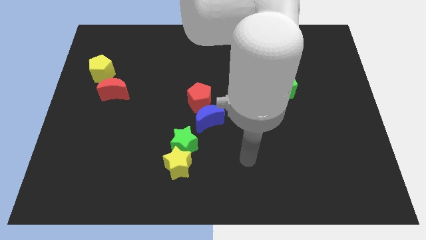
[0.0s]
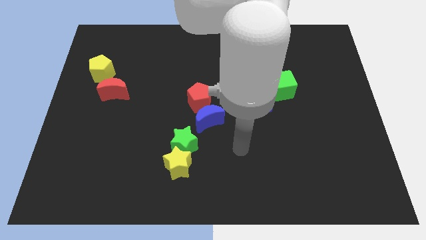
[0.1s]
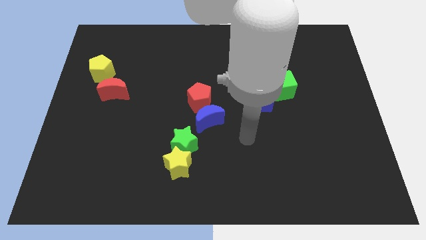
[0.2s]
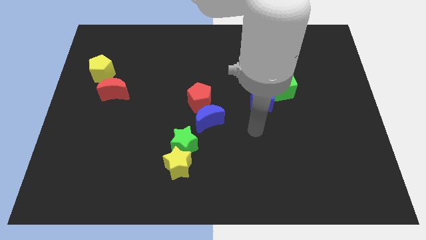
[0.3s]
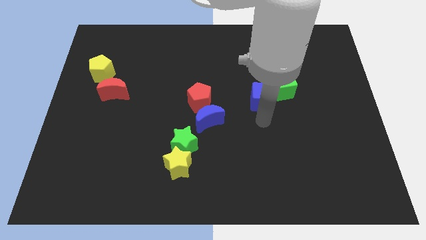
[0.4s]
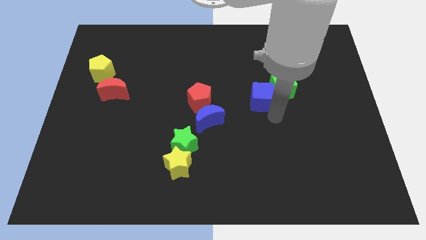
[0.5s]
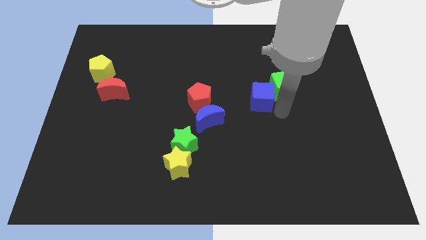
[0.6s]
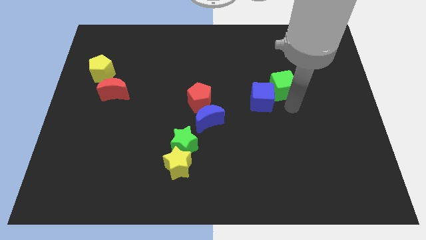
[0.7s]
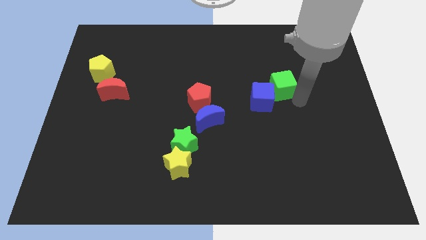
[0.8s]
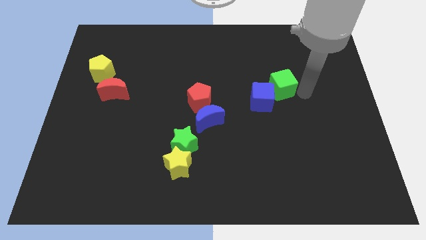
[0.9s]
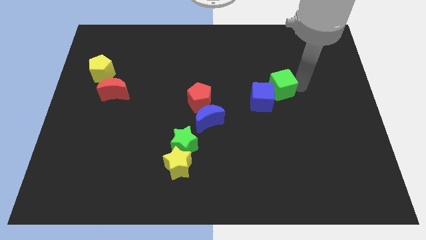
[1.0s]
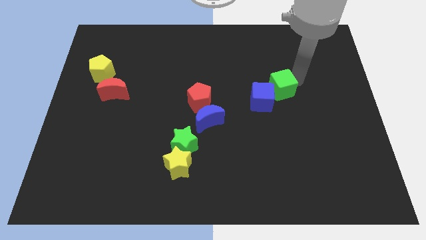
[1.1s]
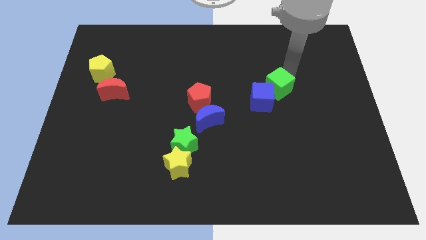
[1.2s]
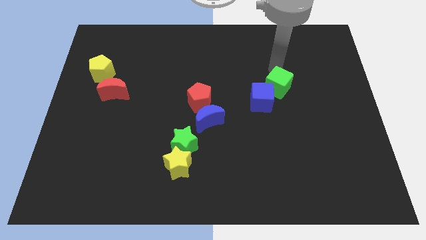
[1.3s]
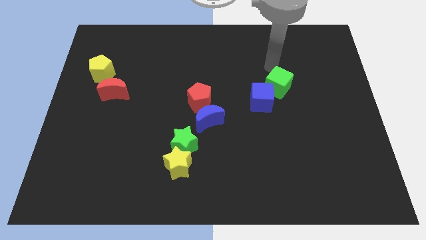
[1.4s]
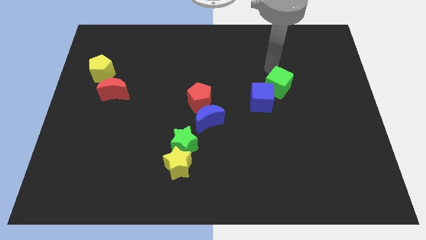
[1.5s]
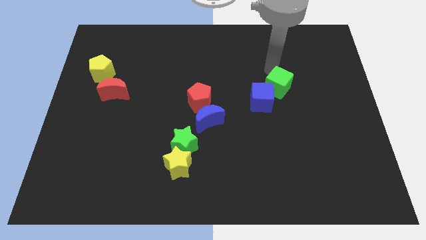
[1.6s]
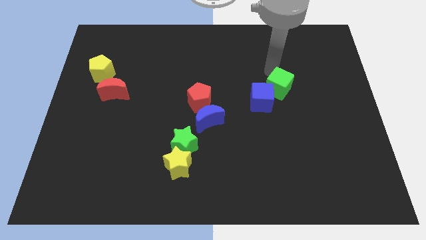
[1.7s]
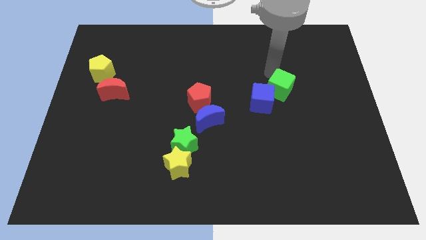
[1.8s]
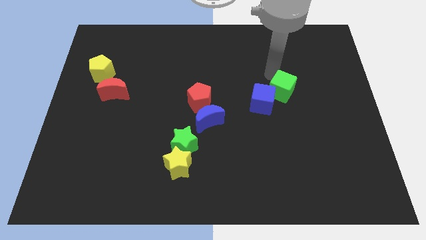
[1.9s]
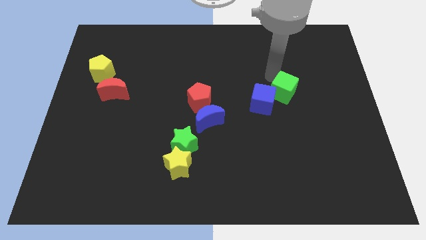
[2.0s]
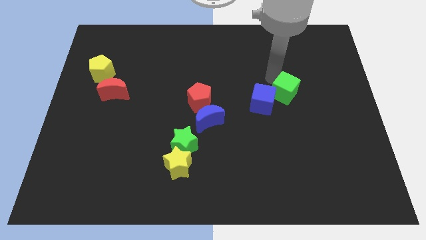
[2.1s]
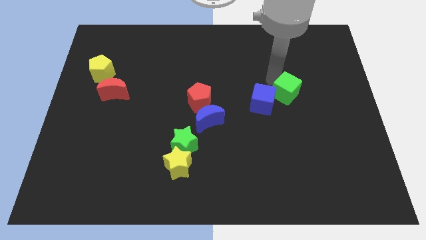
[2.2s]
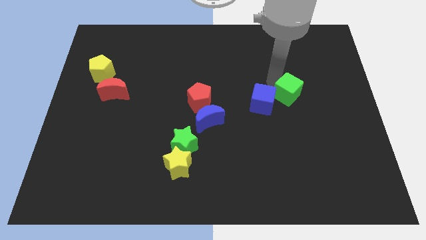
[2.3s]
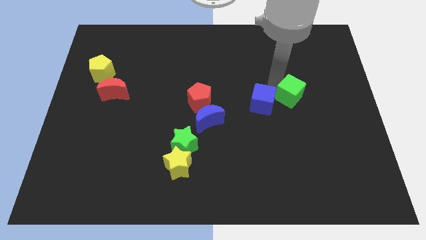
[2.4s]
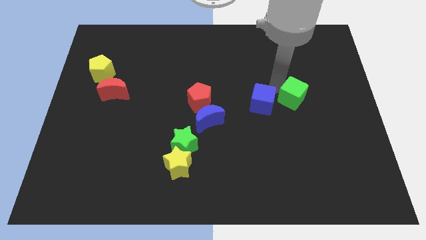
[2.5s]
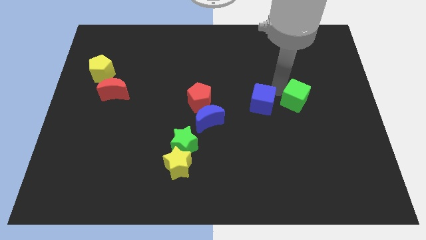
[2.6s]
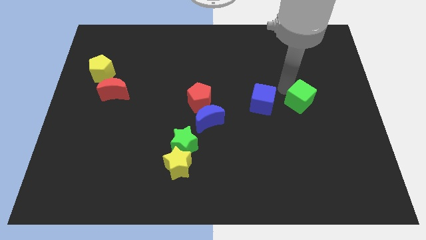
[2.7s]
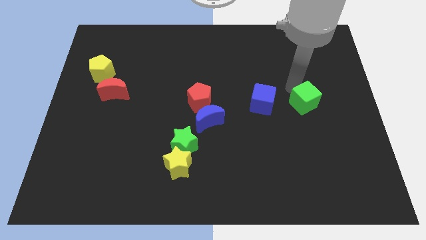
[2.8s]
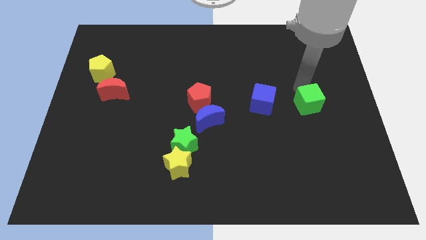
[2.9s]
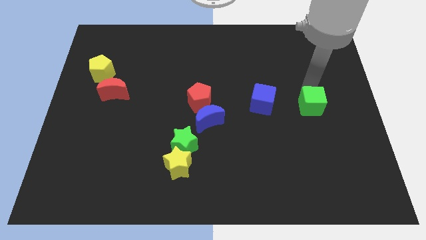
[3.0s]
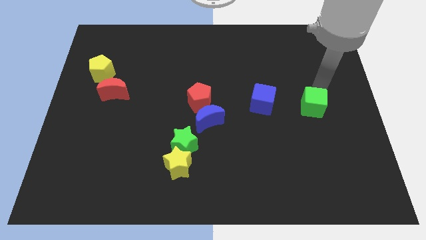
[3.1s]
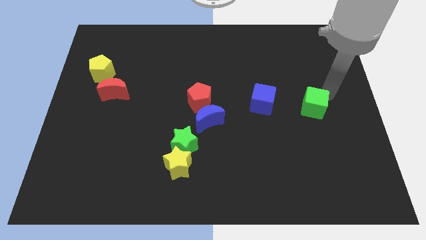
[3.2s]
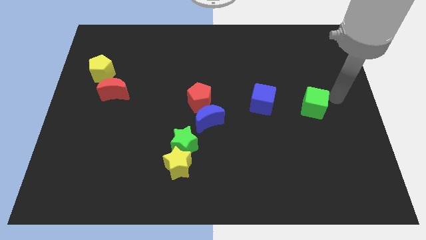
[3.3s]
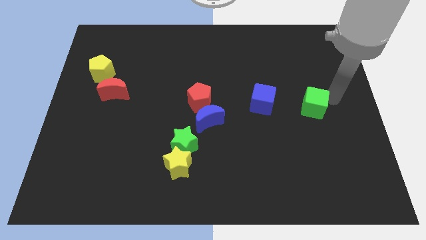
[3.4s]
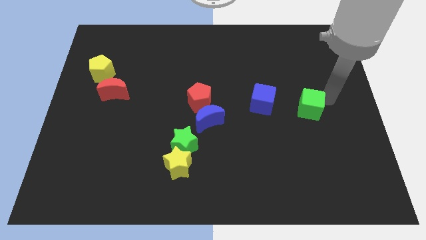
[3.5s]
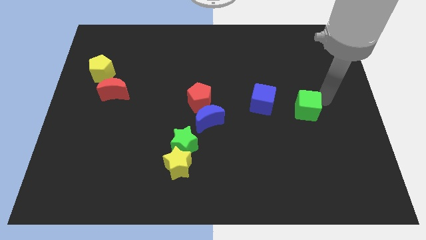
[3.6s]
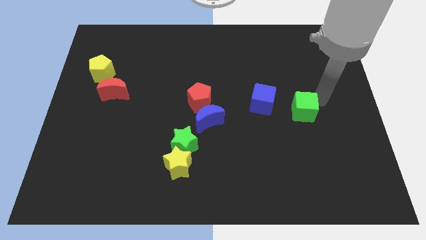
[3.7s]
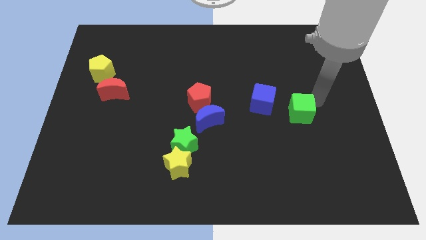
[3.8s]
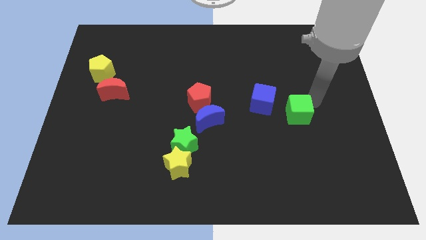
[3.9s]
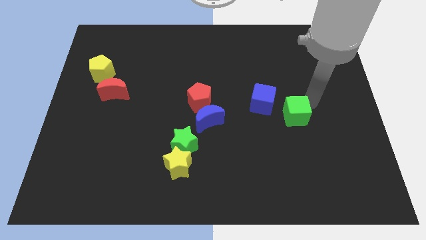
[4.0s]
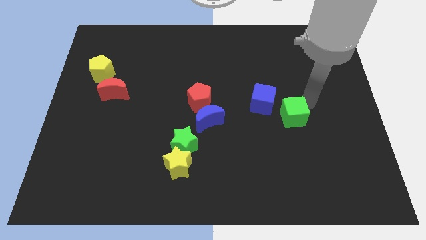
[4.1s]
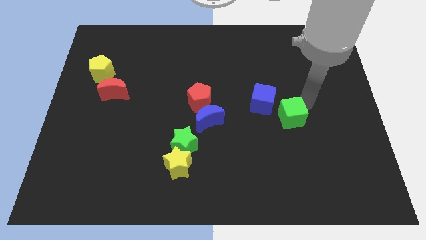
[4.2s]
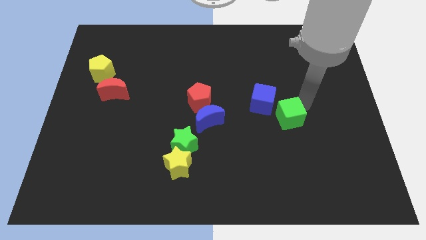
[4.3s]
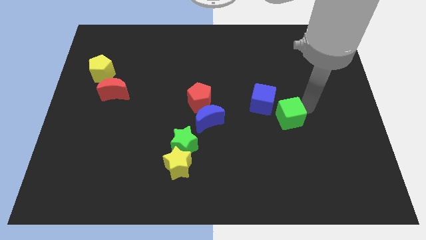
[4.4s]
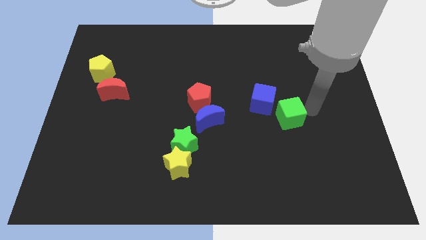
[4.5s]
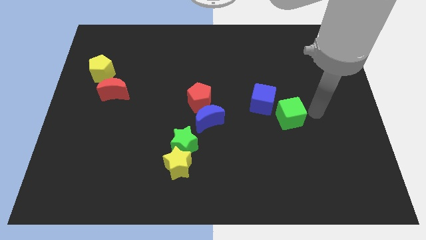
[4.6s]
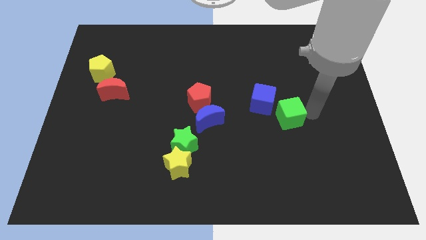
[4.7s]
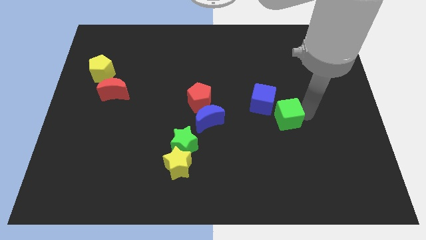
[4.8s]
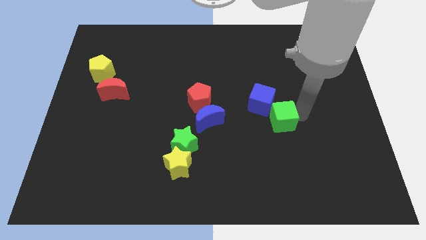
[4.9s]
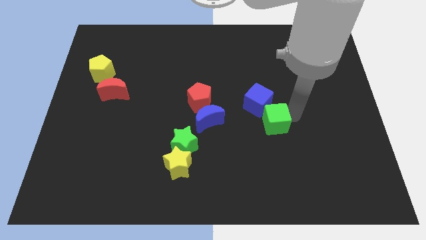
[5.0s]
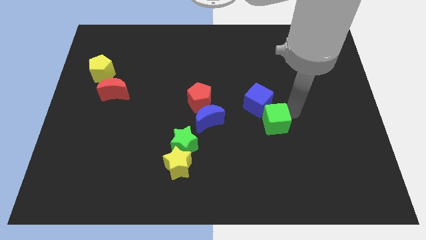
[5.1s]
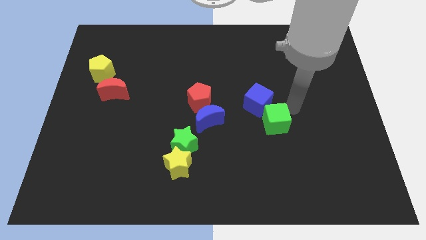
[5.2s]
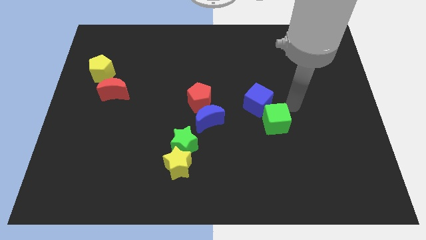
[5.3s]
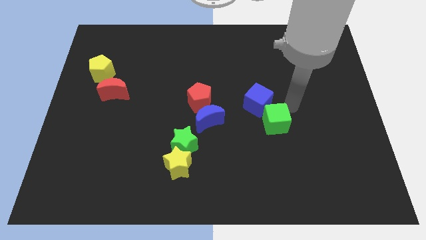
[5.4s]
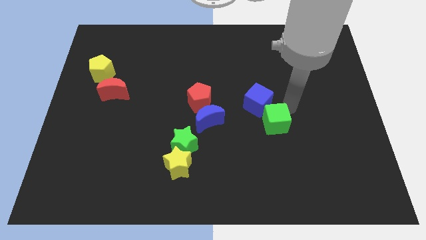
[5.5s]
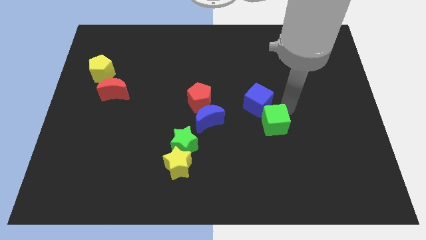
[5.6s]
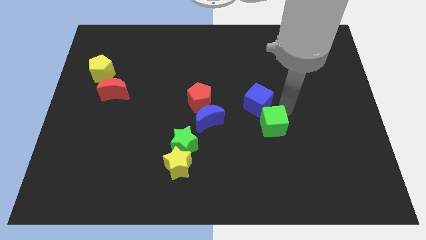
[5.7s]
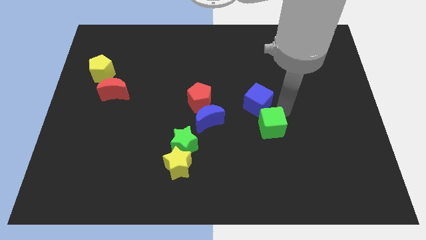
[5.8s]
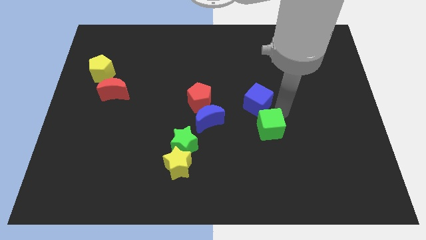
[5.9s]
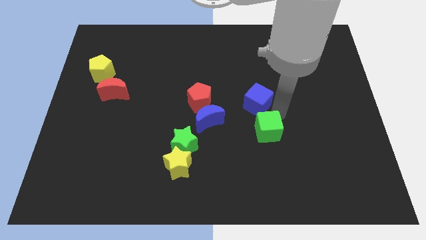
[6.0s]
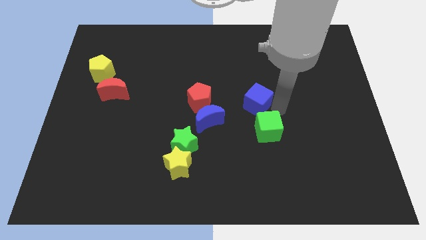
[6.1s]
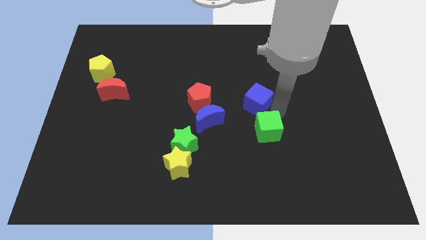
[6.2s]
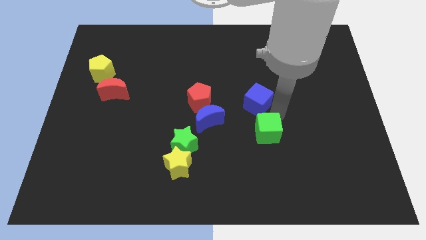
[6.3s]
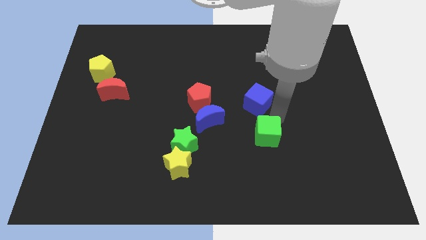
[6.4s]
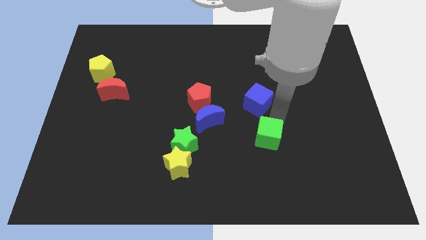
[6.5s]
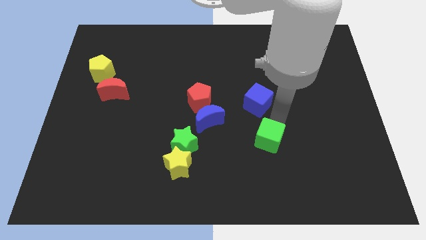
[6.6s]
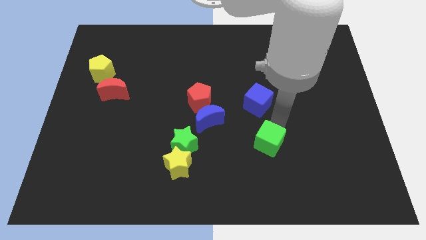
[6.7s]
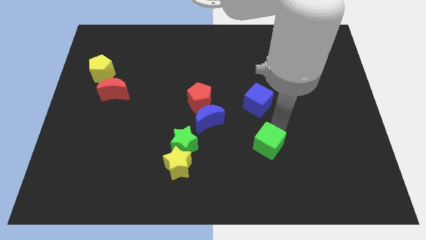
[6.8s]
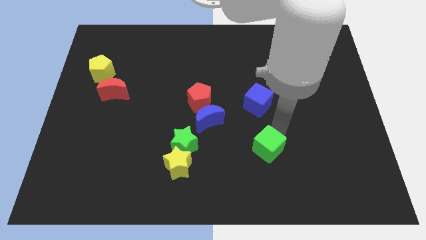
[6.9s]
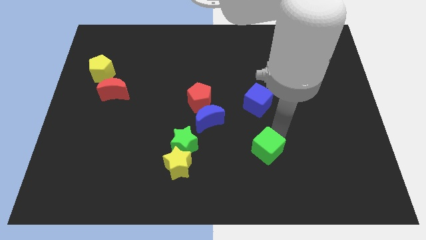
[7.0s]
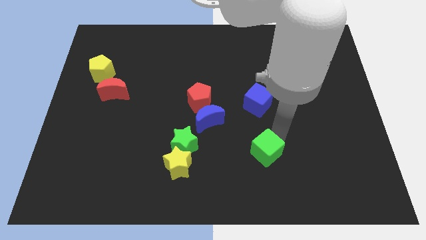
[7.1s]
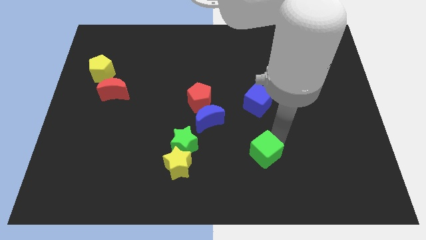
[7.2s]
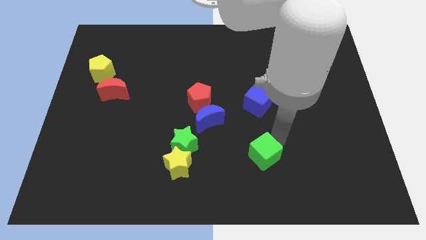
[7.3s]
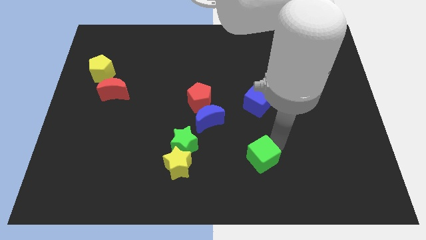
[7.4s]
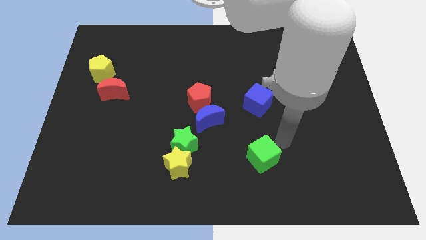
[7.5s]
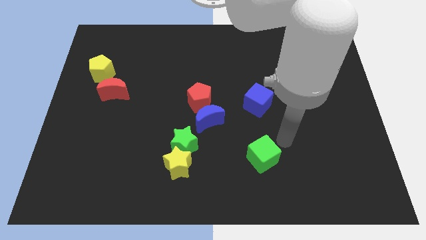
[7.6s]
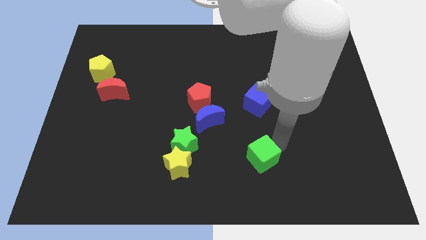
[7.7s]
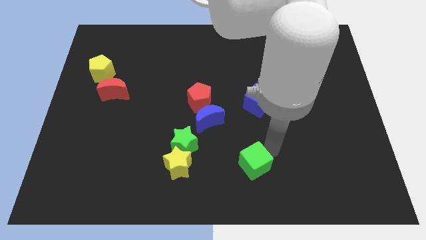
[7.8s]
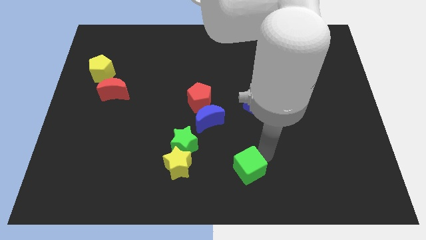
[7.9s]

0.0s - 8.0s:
put the green cube to the bottom
